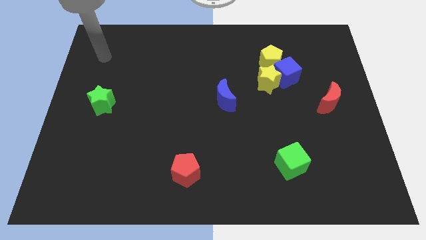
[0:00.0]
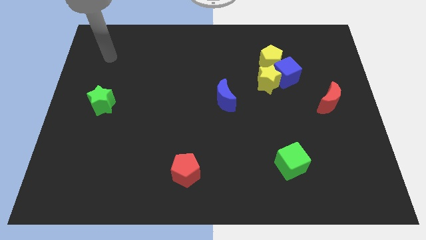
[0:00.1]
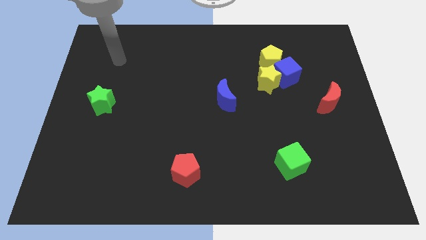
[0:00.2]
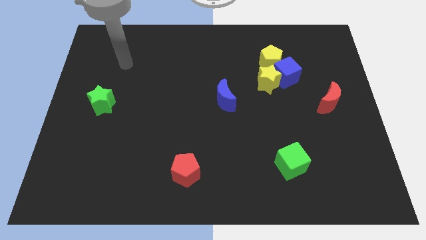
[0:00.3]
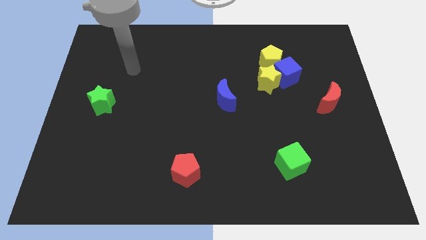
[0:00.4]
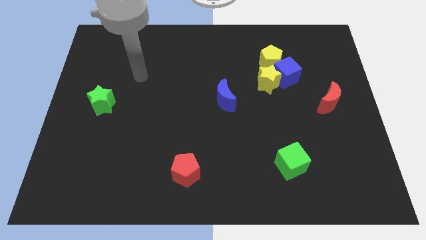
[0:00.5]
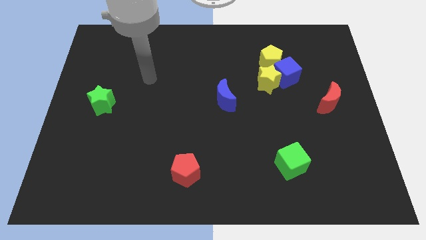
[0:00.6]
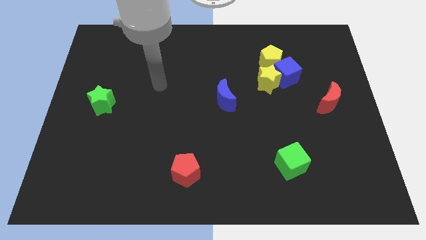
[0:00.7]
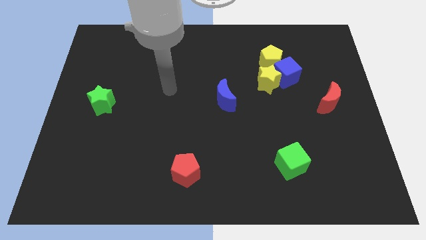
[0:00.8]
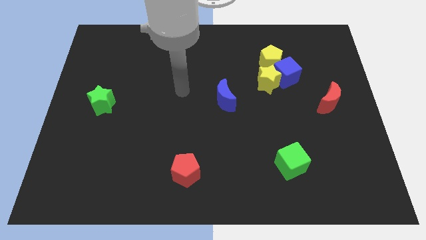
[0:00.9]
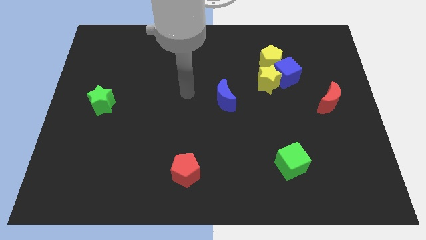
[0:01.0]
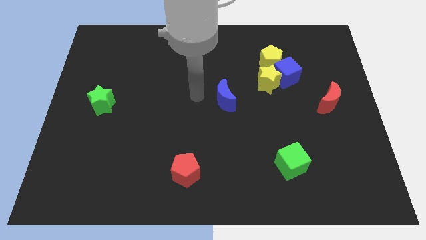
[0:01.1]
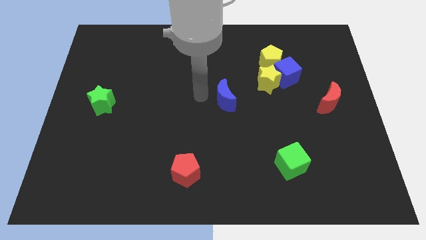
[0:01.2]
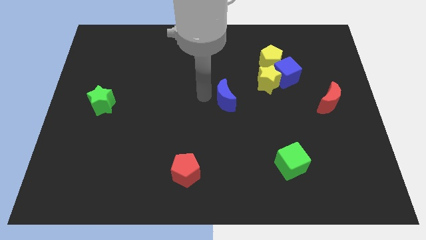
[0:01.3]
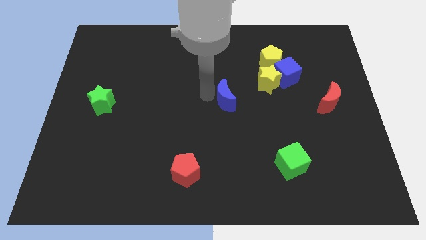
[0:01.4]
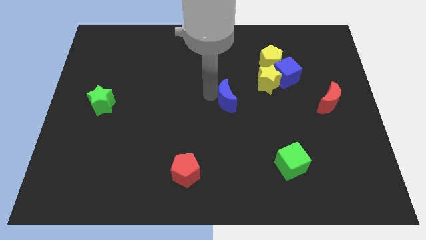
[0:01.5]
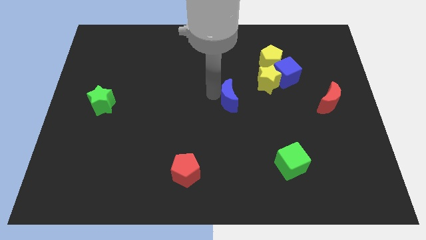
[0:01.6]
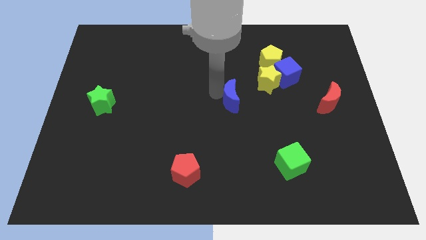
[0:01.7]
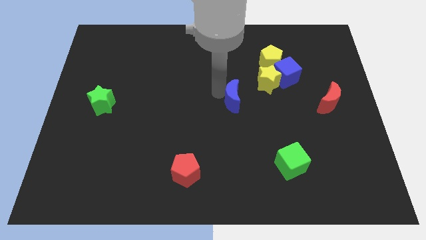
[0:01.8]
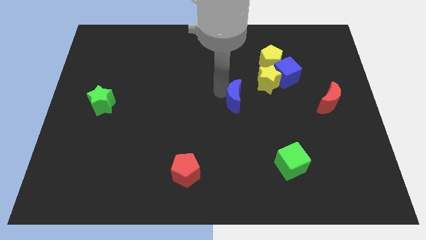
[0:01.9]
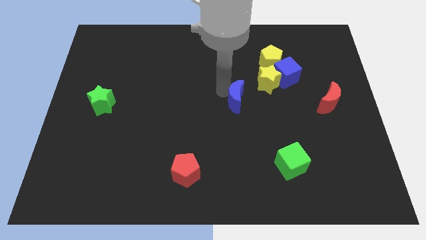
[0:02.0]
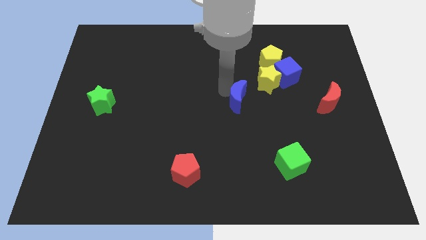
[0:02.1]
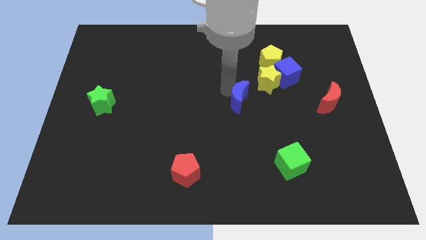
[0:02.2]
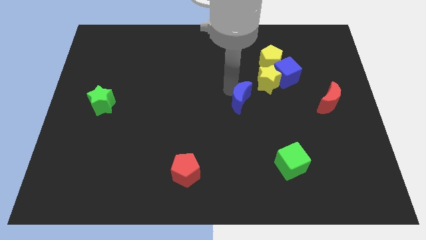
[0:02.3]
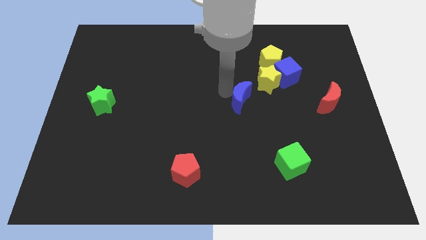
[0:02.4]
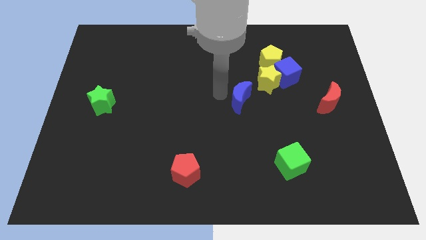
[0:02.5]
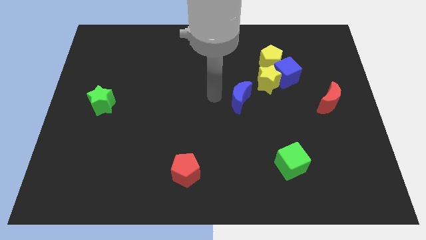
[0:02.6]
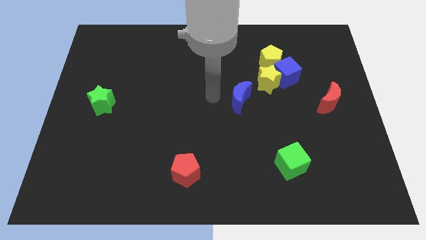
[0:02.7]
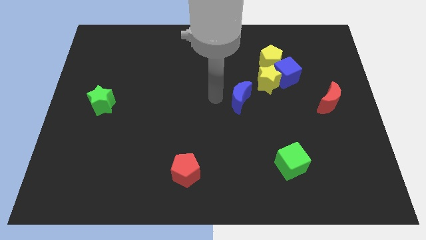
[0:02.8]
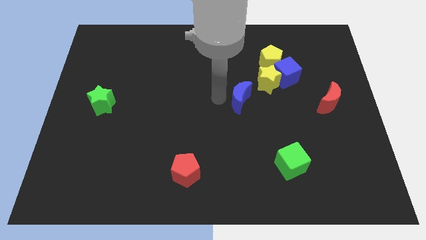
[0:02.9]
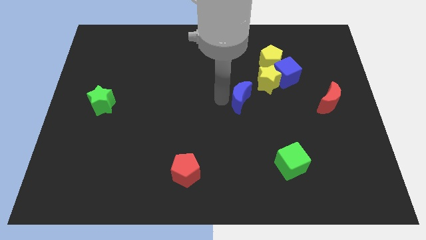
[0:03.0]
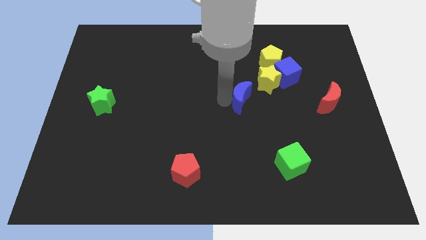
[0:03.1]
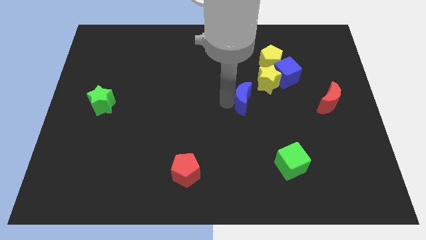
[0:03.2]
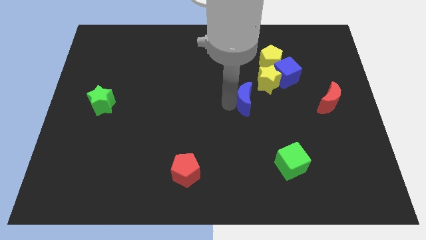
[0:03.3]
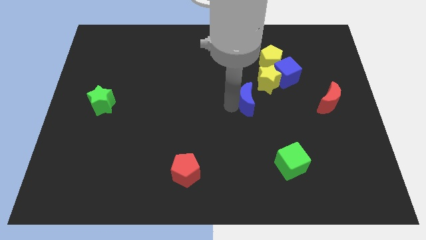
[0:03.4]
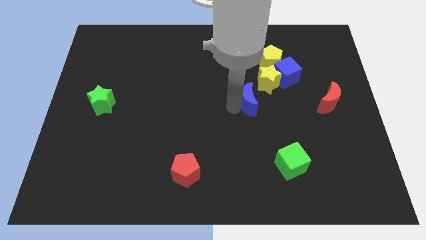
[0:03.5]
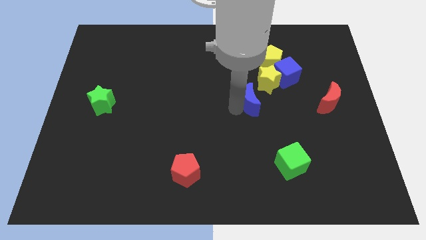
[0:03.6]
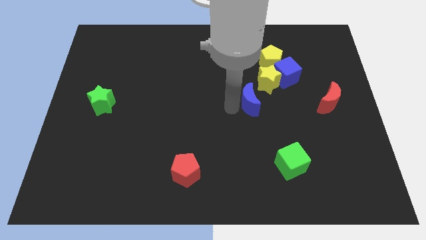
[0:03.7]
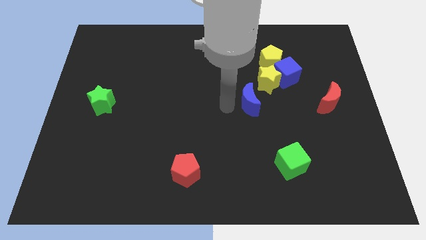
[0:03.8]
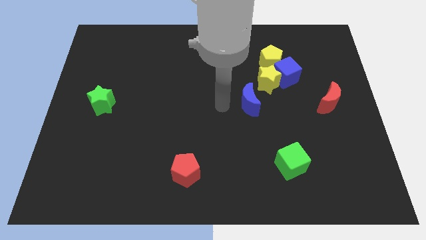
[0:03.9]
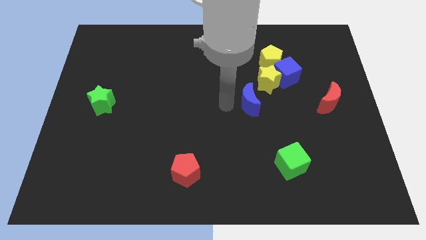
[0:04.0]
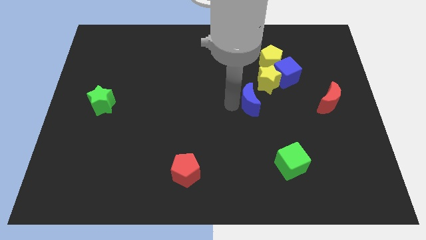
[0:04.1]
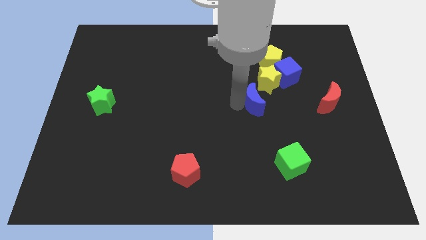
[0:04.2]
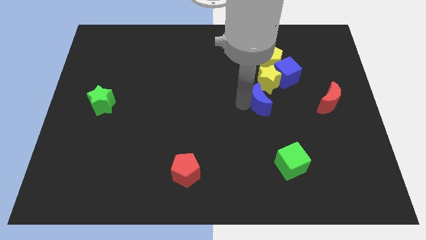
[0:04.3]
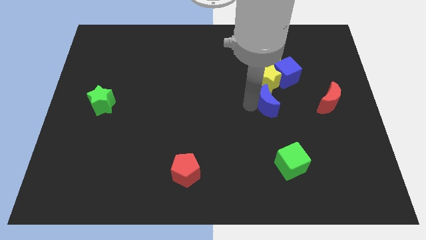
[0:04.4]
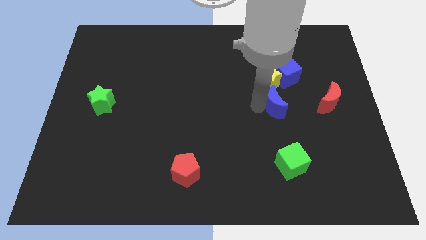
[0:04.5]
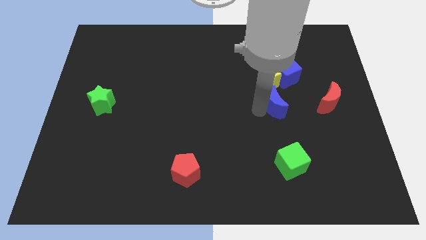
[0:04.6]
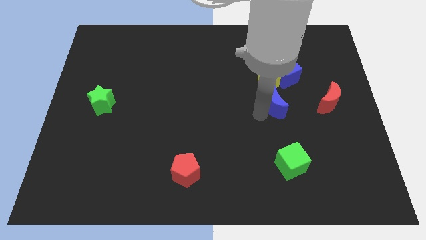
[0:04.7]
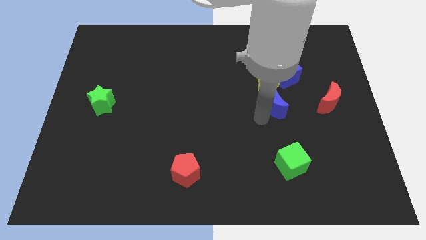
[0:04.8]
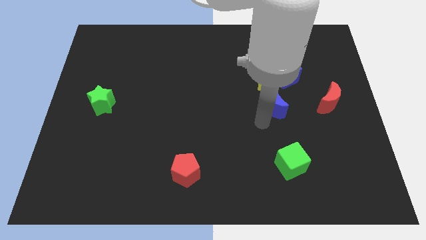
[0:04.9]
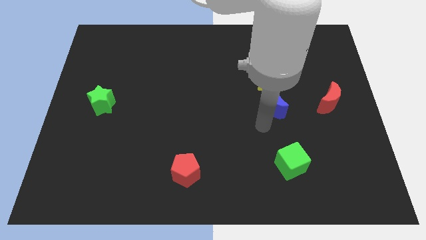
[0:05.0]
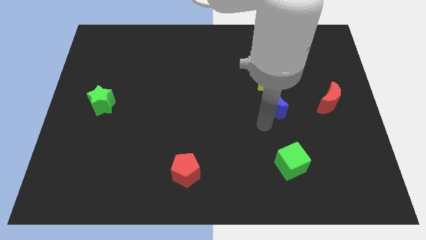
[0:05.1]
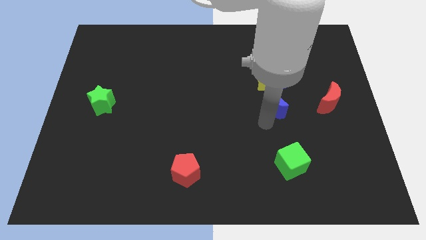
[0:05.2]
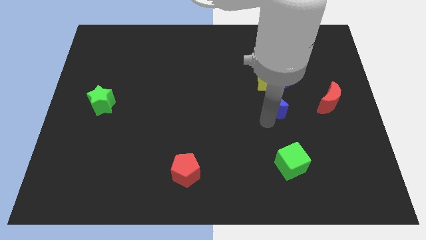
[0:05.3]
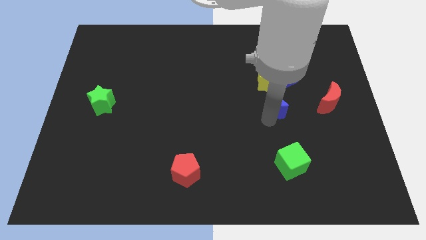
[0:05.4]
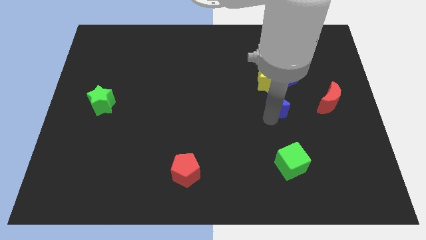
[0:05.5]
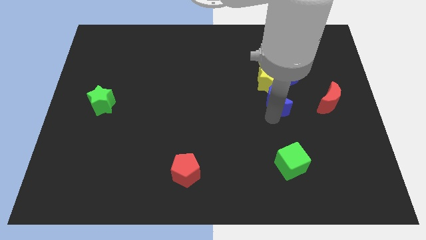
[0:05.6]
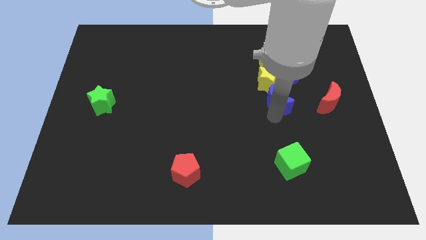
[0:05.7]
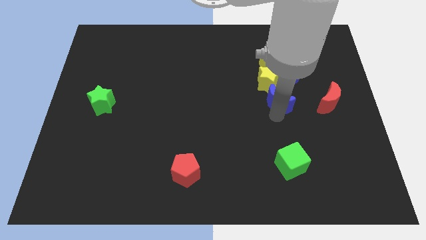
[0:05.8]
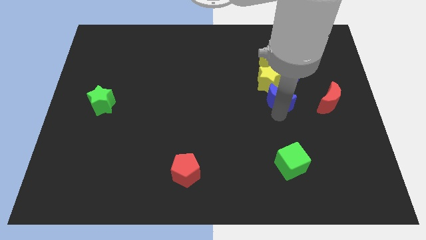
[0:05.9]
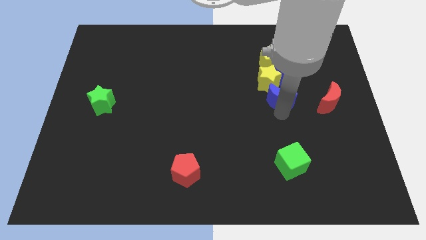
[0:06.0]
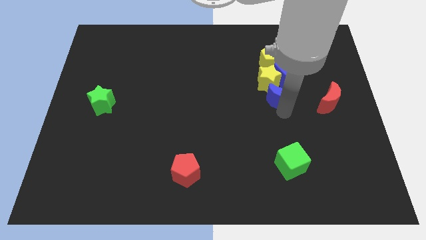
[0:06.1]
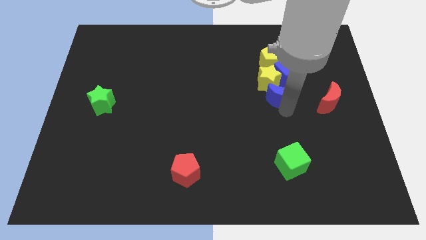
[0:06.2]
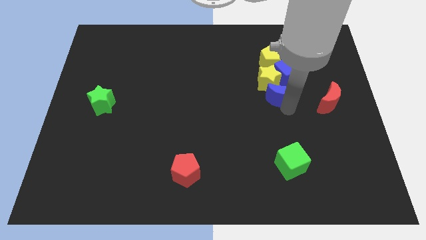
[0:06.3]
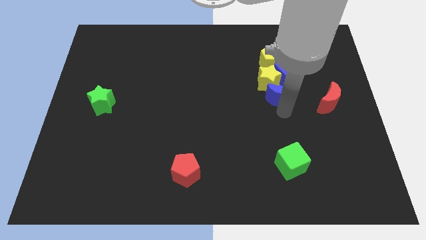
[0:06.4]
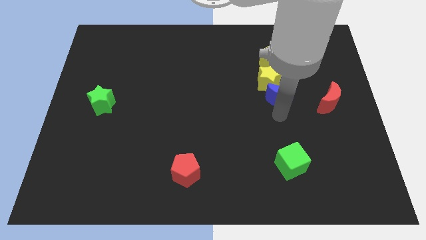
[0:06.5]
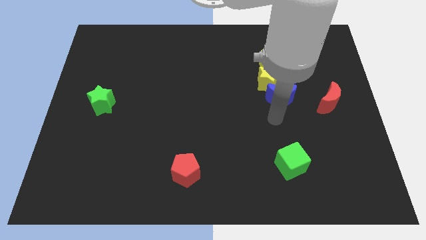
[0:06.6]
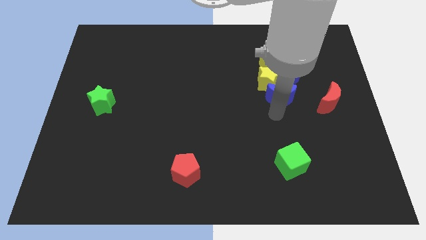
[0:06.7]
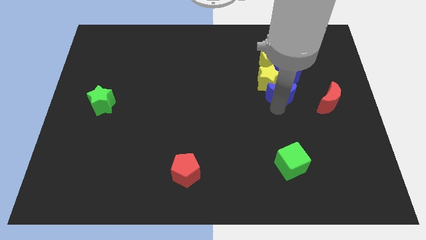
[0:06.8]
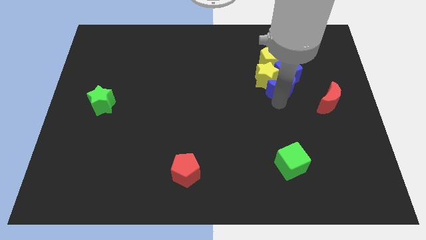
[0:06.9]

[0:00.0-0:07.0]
slide the blue moon close to the blue cube

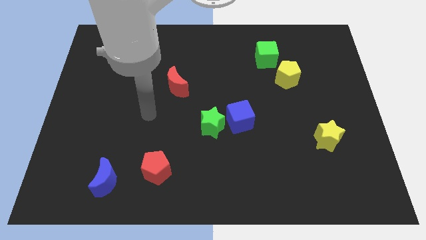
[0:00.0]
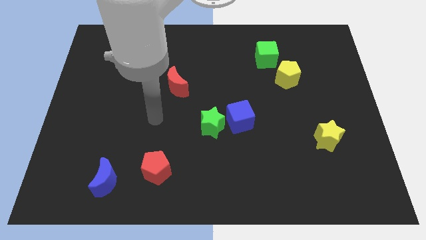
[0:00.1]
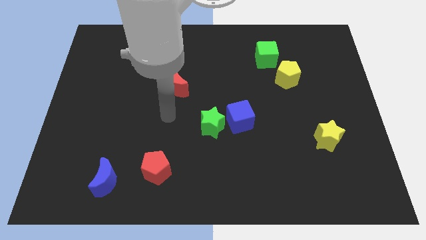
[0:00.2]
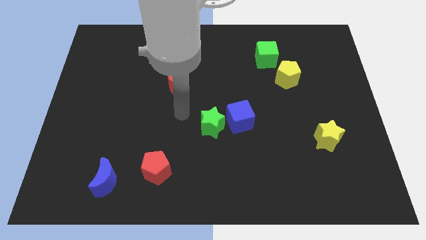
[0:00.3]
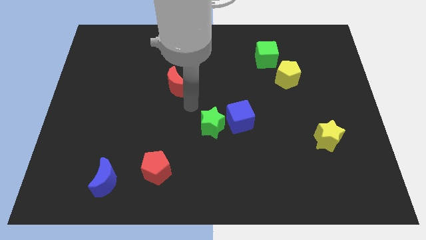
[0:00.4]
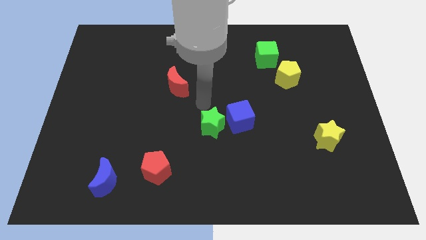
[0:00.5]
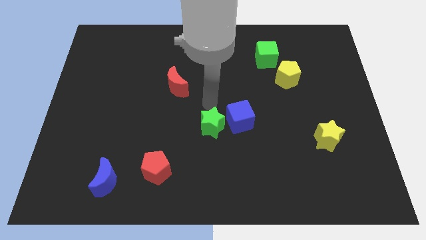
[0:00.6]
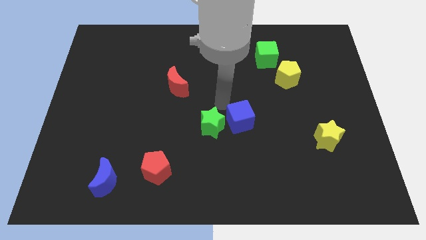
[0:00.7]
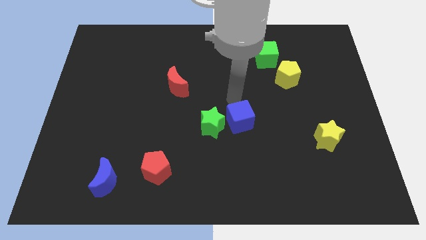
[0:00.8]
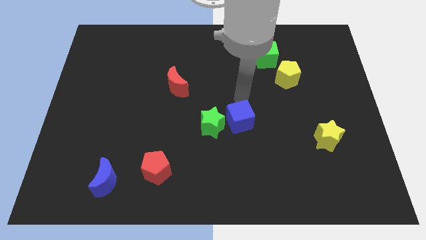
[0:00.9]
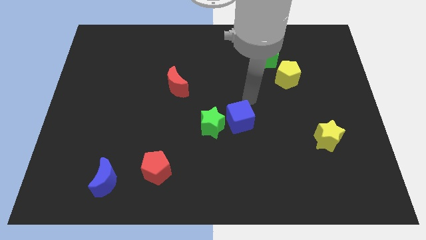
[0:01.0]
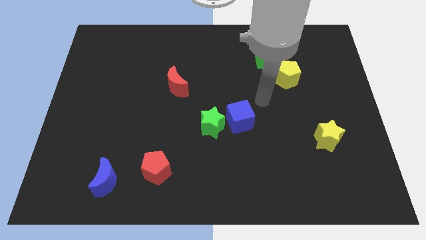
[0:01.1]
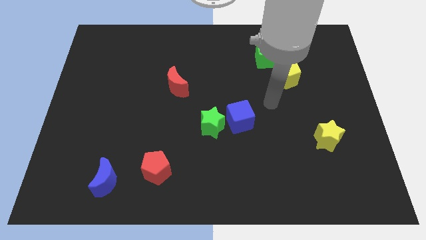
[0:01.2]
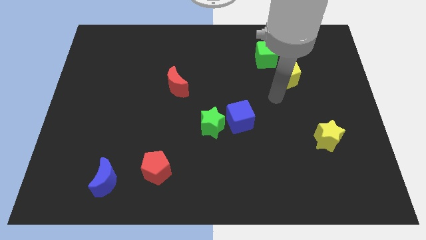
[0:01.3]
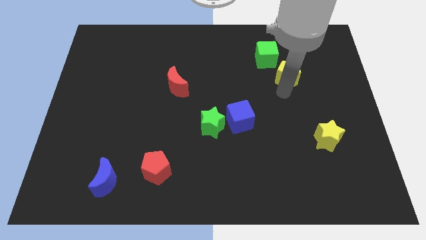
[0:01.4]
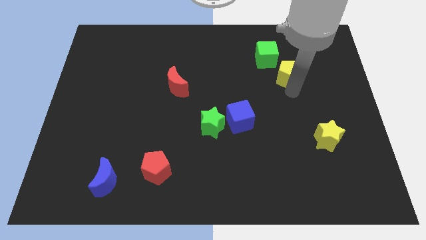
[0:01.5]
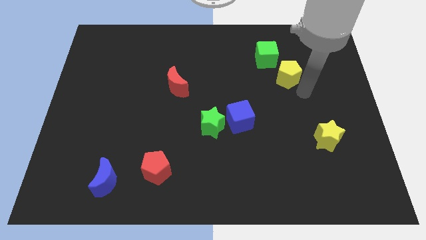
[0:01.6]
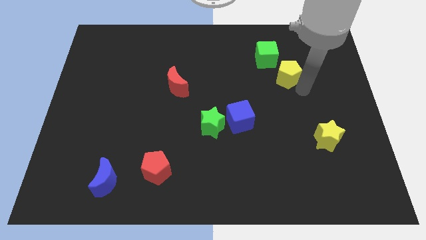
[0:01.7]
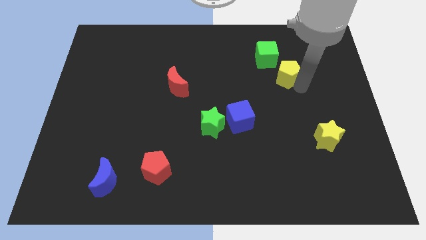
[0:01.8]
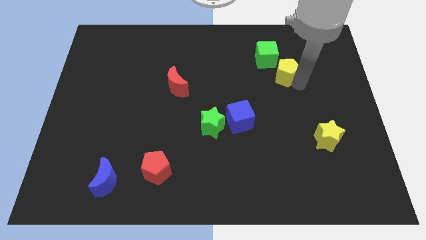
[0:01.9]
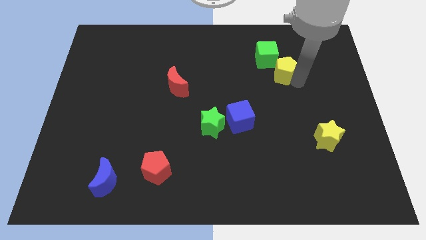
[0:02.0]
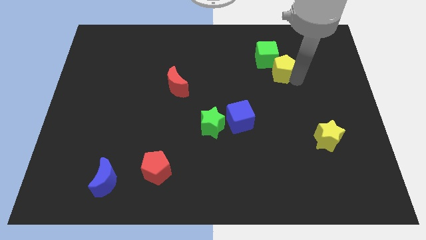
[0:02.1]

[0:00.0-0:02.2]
push the yellow pentagon to the green cube
